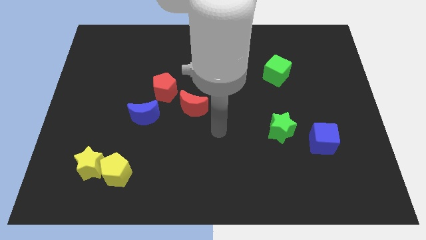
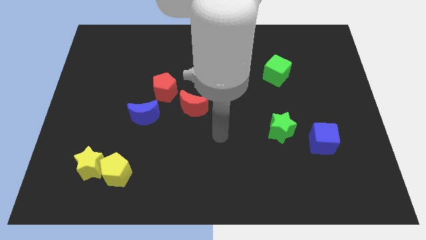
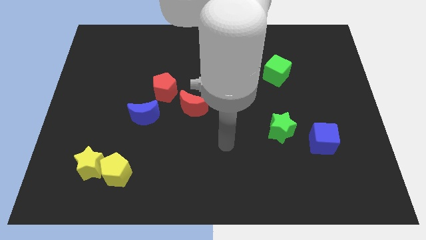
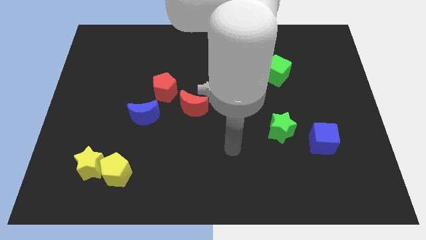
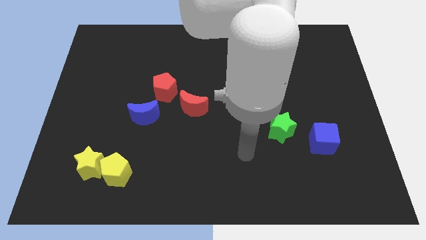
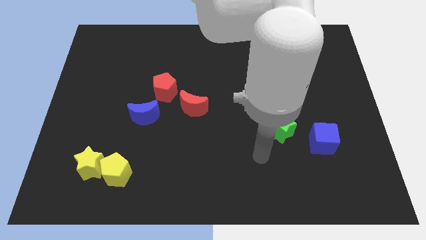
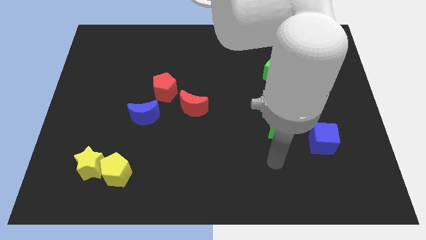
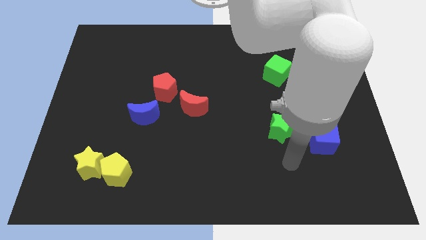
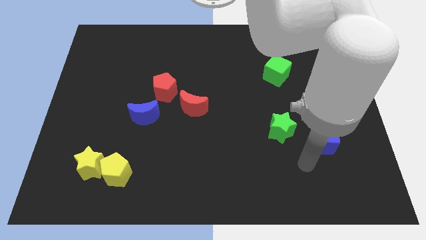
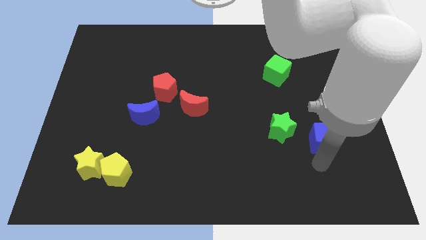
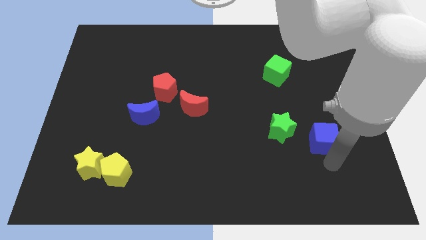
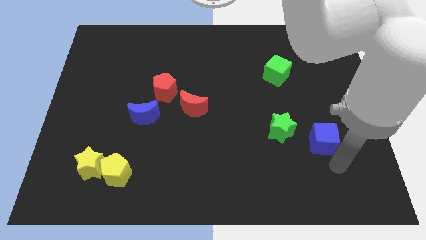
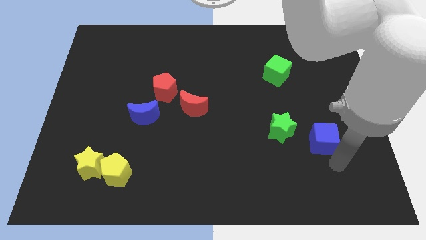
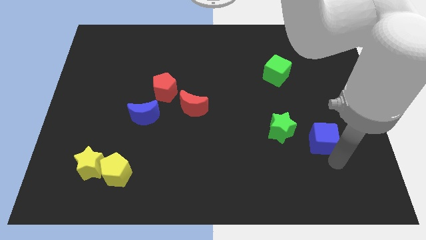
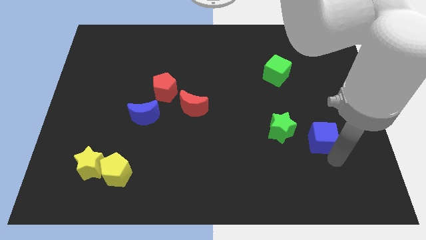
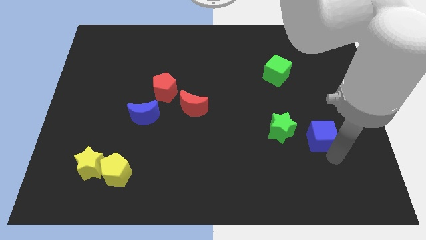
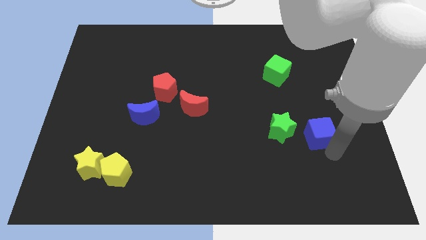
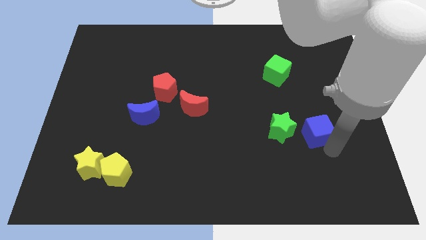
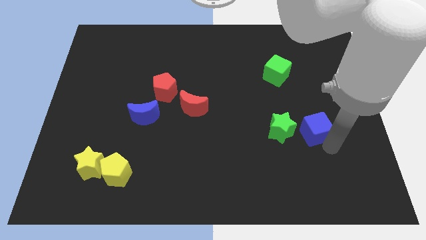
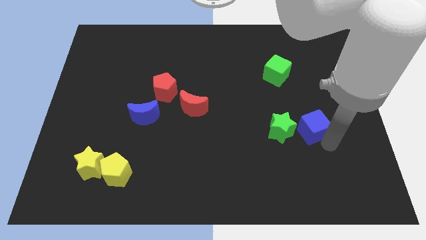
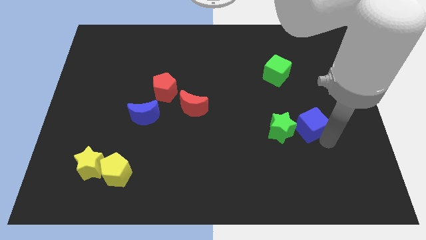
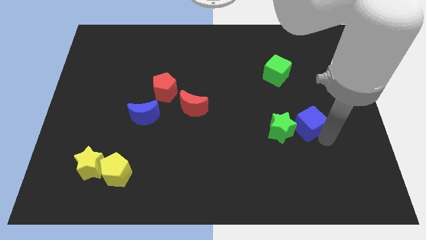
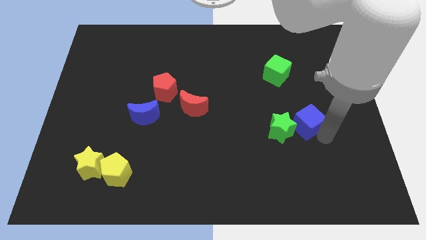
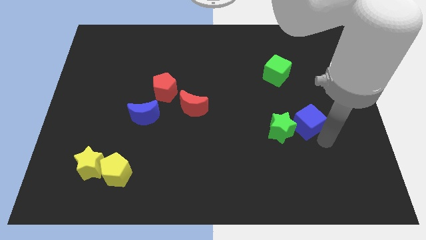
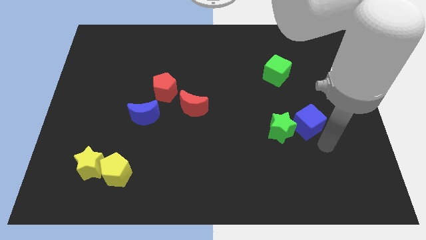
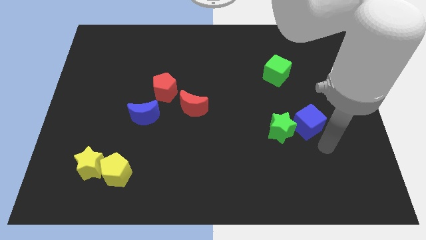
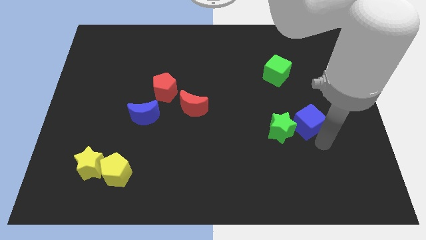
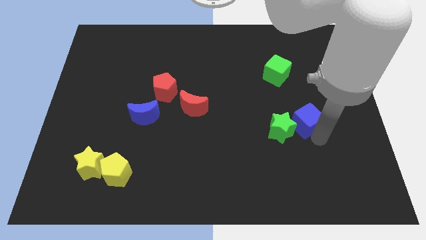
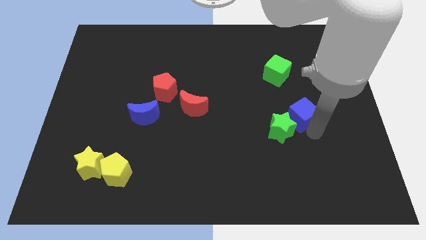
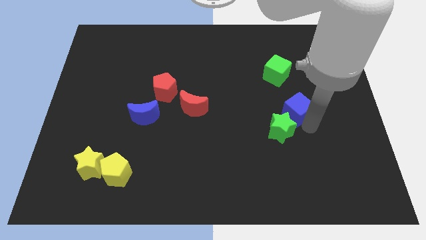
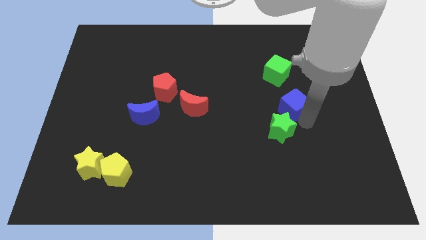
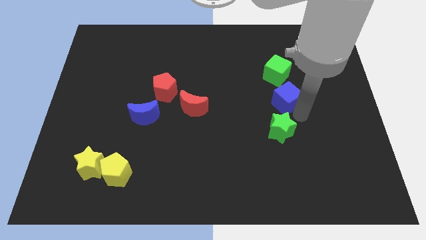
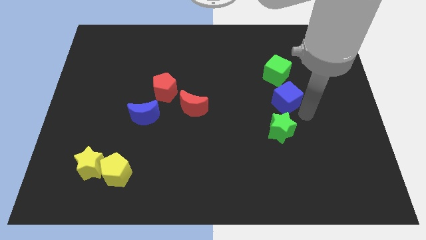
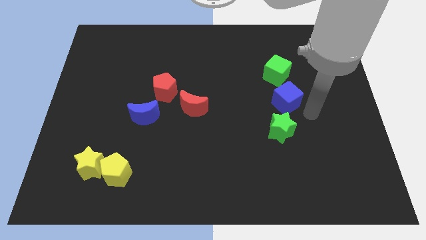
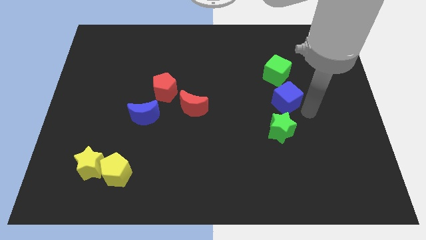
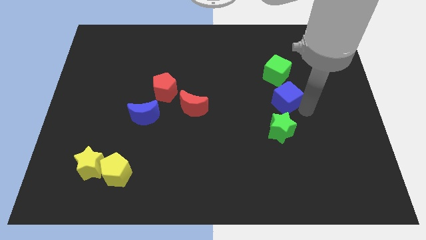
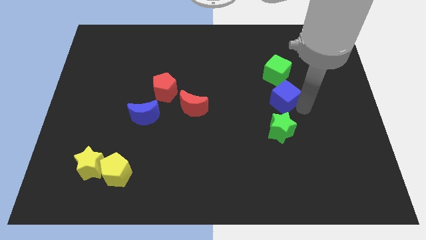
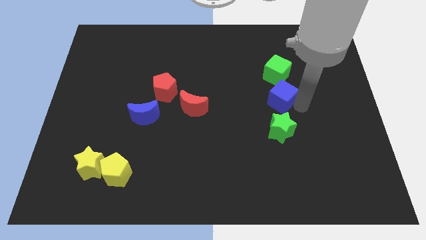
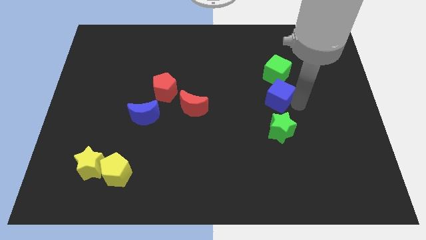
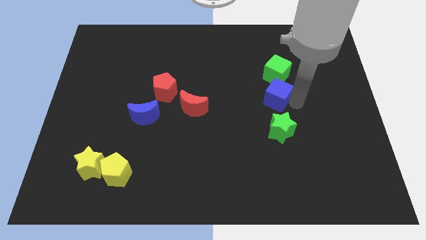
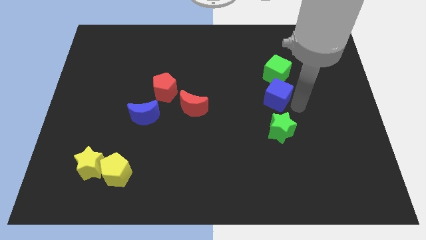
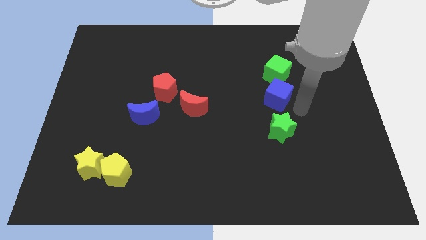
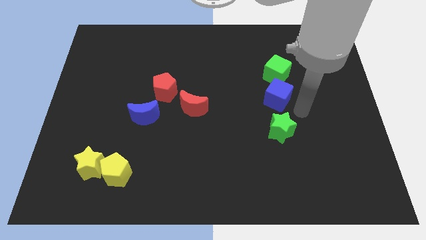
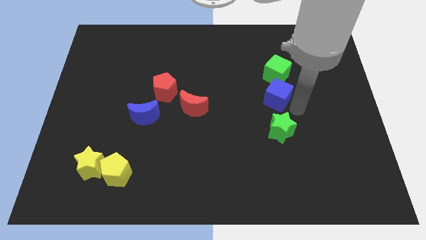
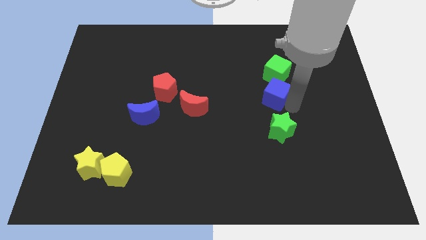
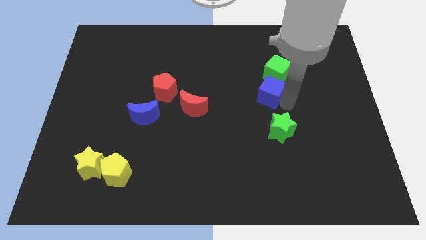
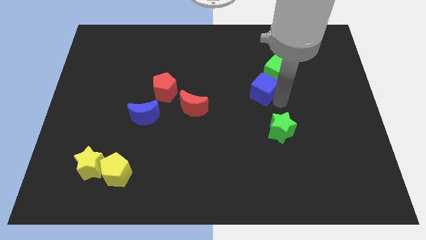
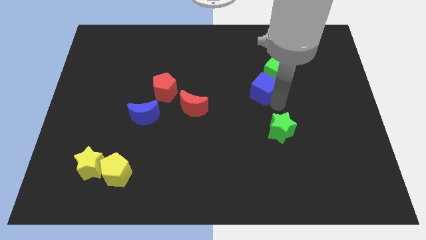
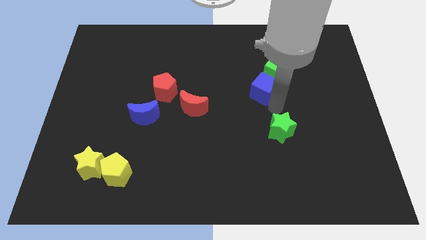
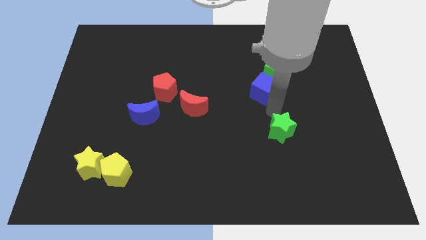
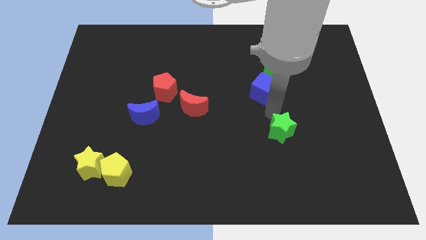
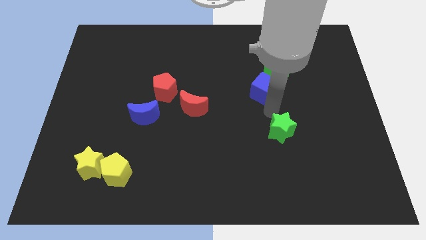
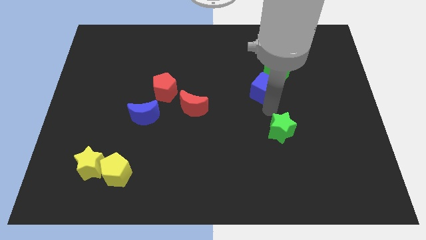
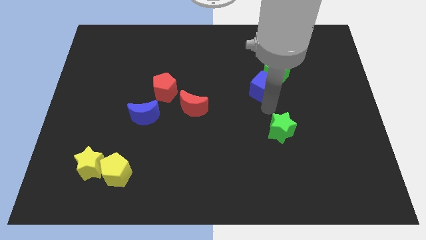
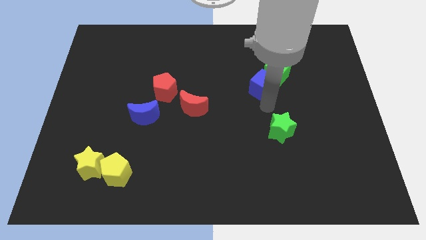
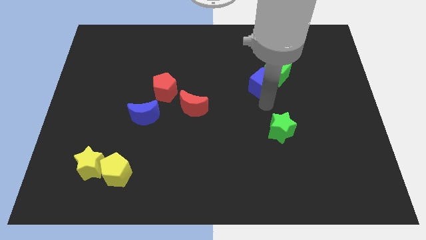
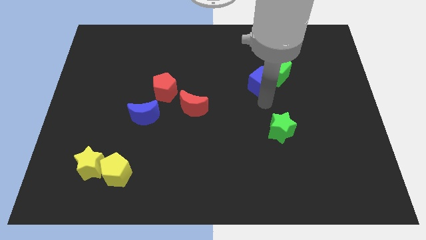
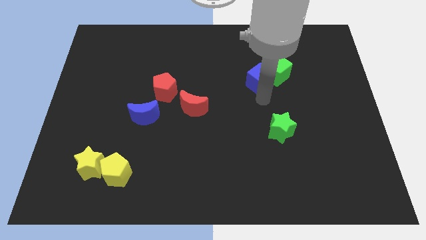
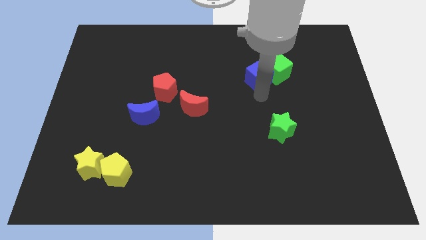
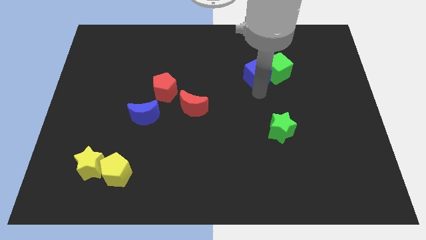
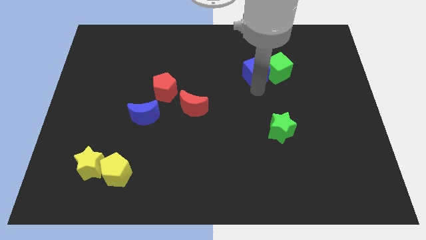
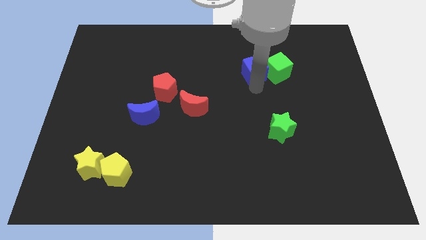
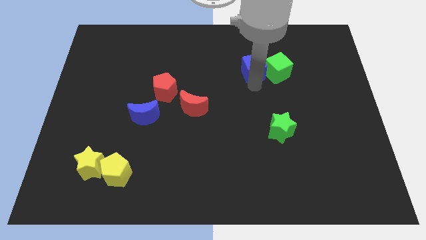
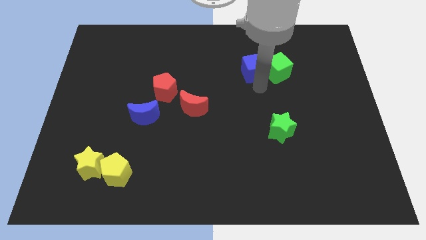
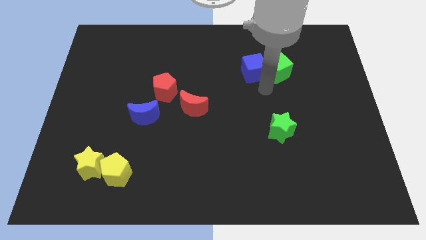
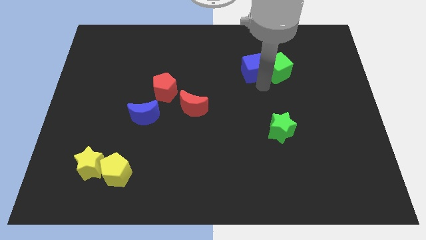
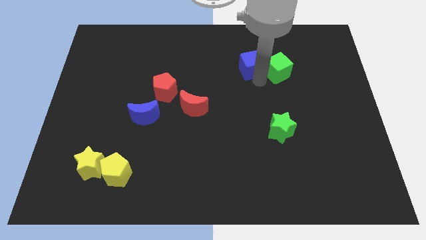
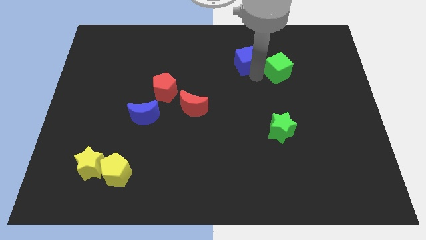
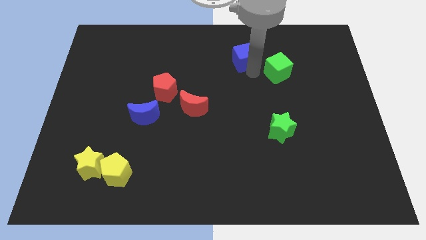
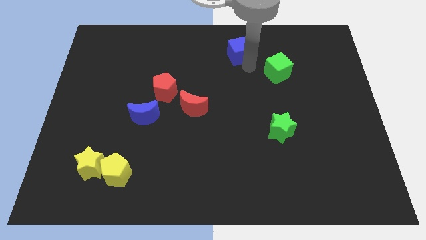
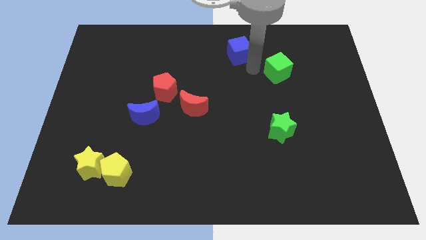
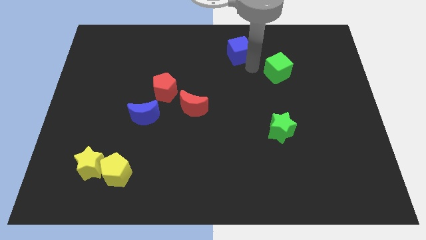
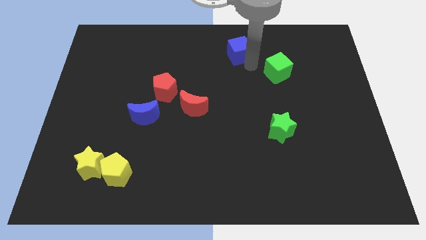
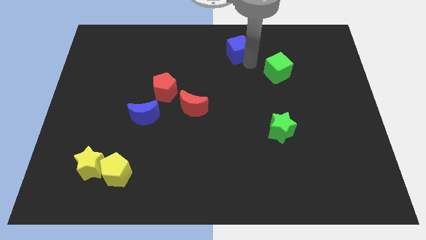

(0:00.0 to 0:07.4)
push the blue cube to the top
